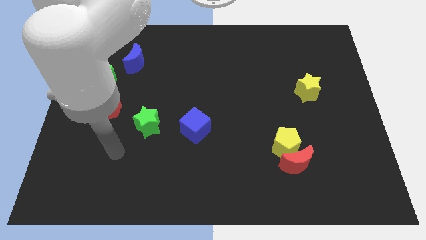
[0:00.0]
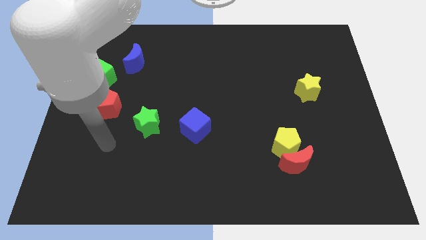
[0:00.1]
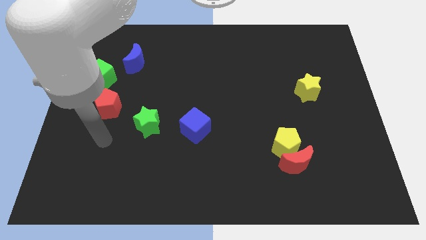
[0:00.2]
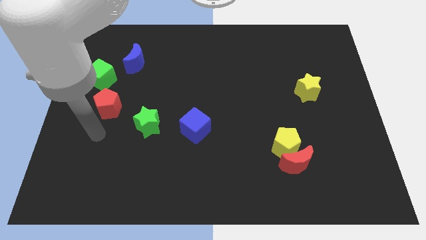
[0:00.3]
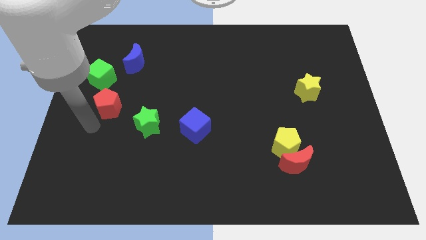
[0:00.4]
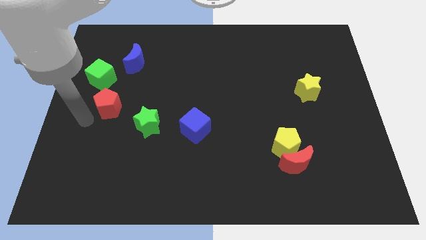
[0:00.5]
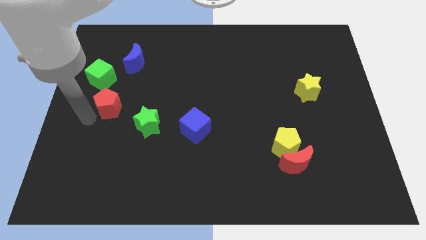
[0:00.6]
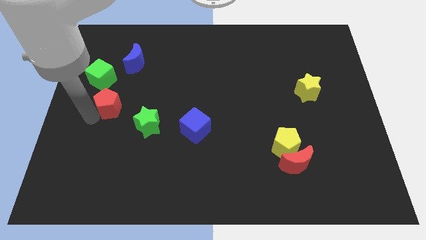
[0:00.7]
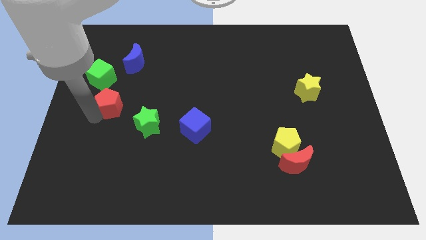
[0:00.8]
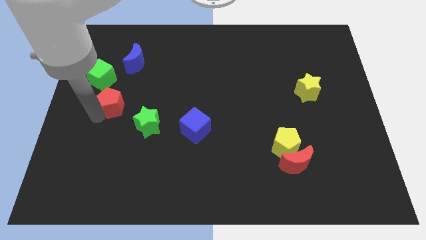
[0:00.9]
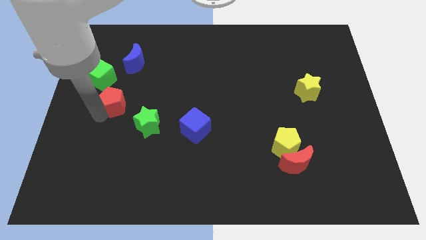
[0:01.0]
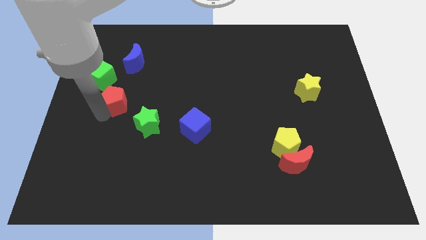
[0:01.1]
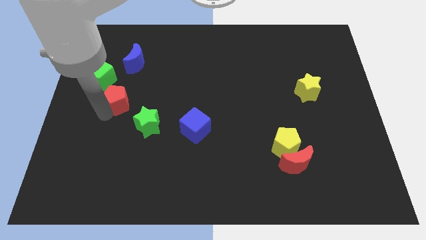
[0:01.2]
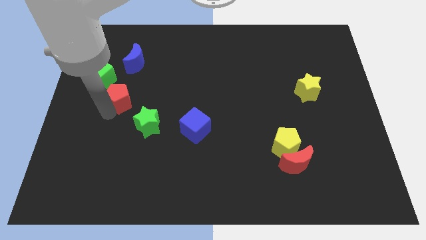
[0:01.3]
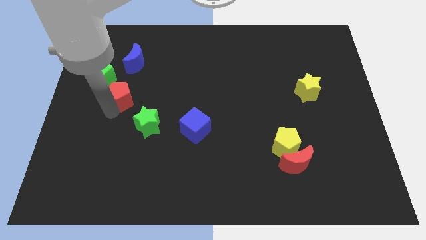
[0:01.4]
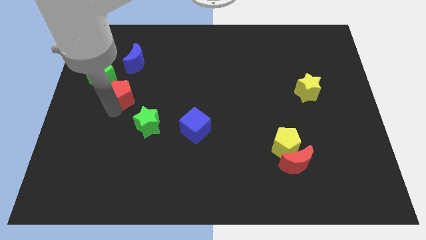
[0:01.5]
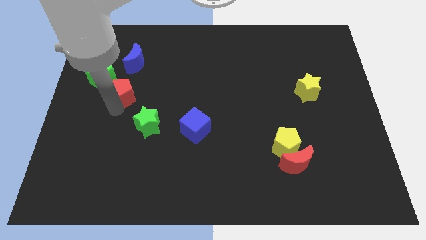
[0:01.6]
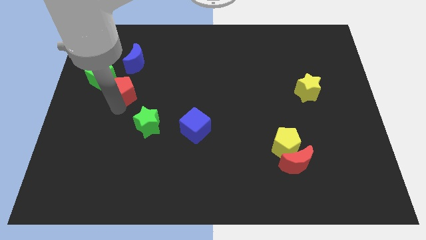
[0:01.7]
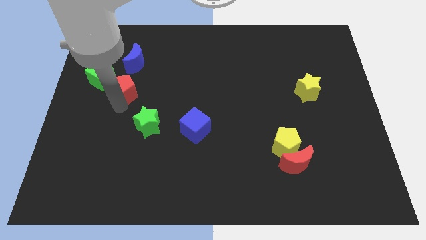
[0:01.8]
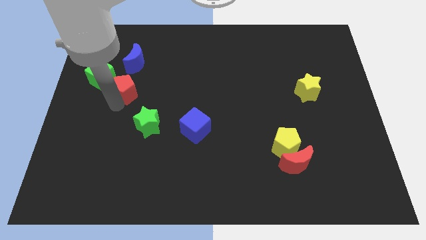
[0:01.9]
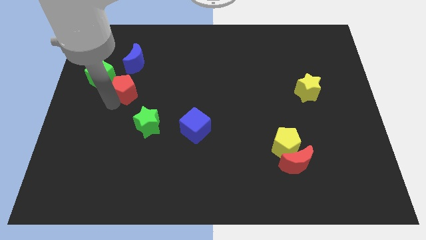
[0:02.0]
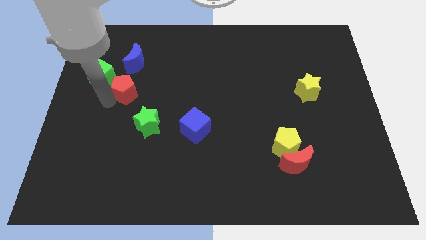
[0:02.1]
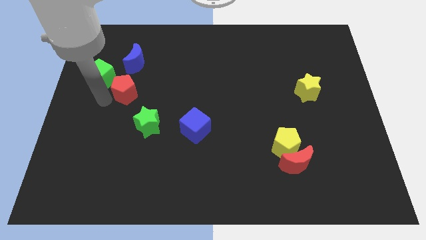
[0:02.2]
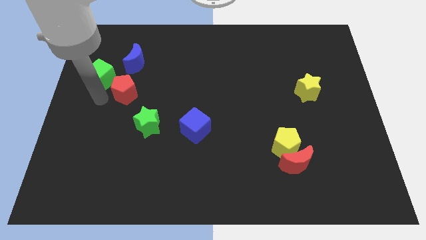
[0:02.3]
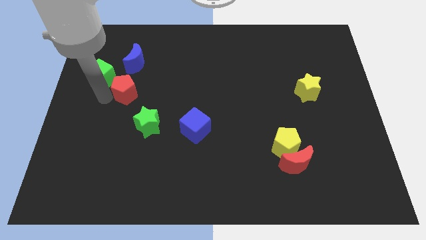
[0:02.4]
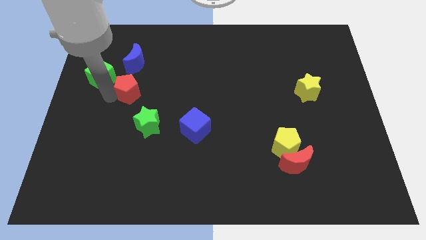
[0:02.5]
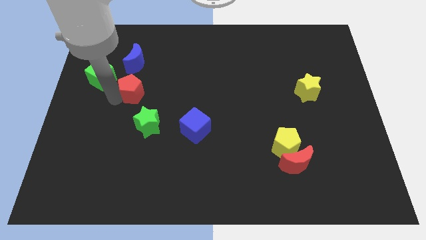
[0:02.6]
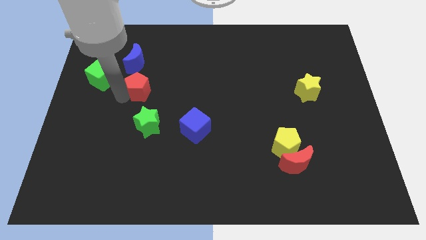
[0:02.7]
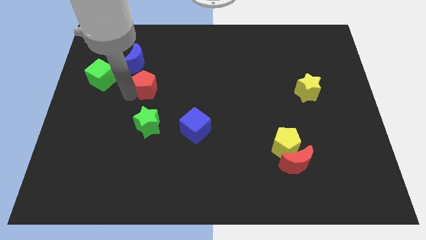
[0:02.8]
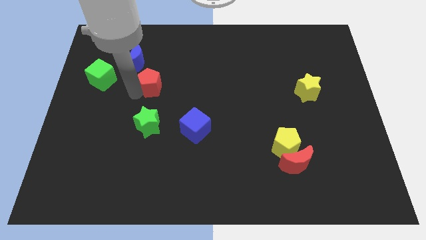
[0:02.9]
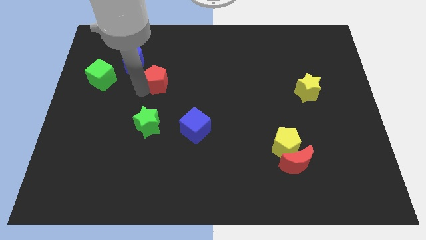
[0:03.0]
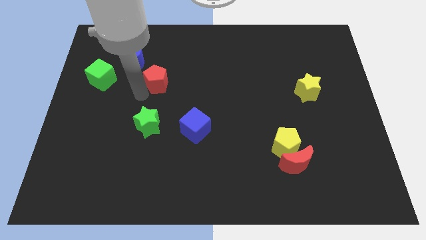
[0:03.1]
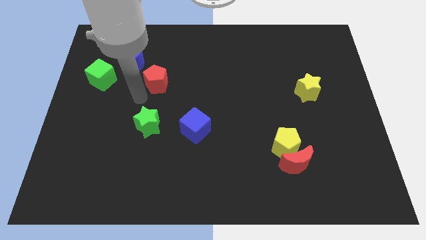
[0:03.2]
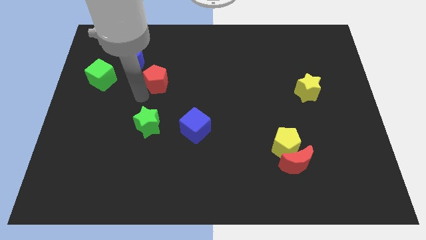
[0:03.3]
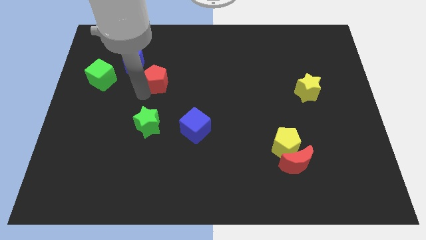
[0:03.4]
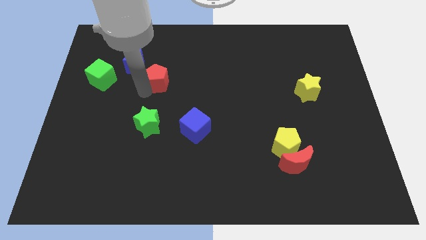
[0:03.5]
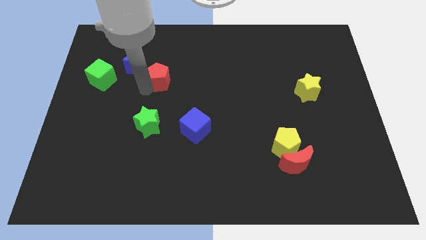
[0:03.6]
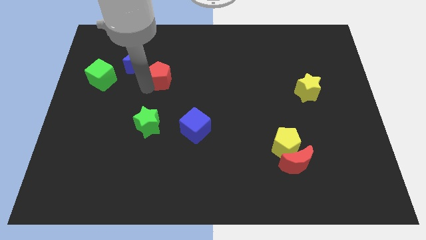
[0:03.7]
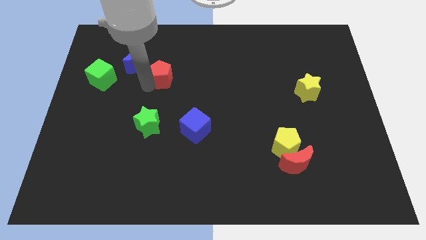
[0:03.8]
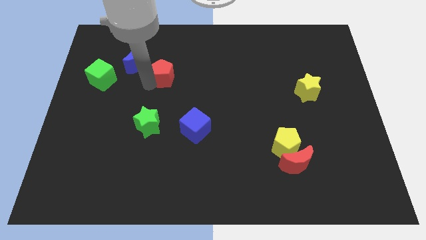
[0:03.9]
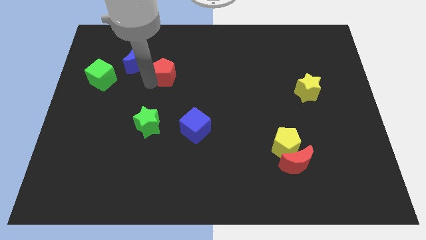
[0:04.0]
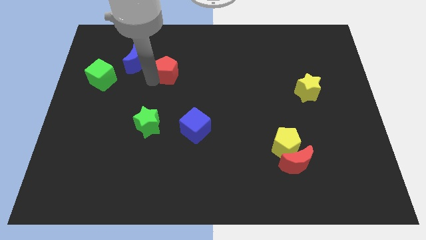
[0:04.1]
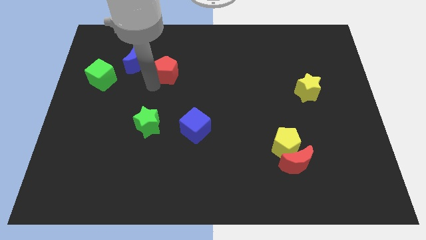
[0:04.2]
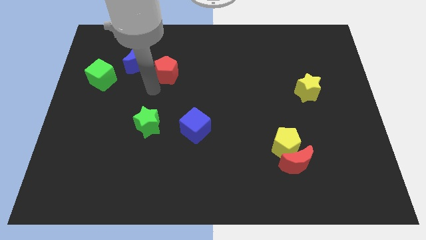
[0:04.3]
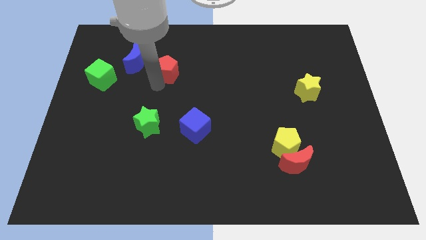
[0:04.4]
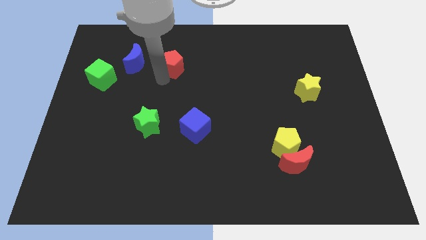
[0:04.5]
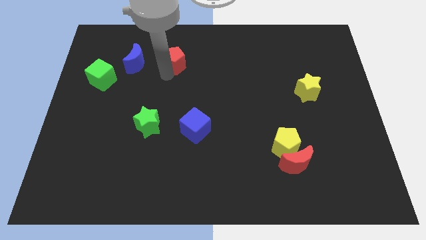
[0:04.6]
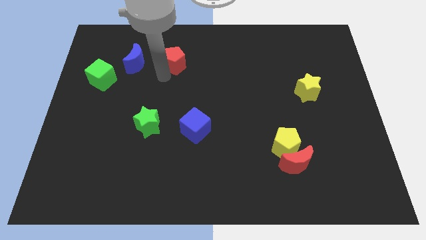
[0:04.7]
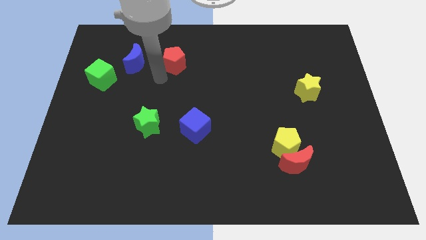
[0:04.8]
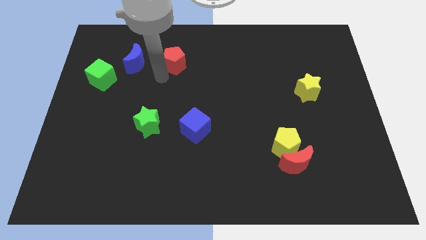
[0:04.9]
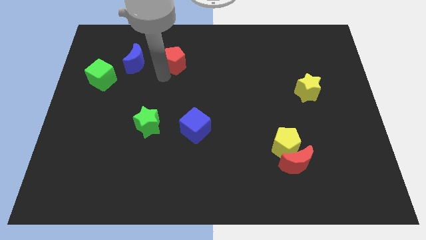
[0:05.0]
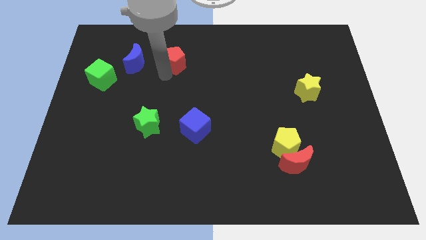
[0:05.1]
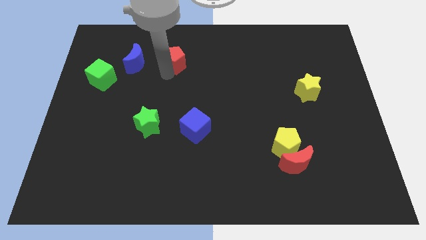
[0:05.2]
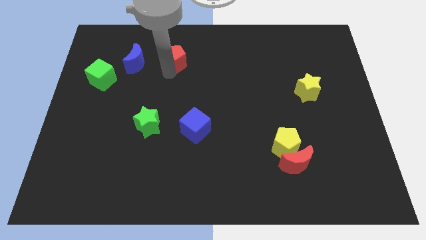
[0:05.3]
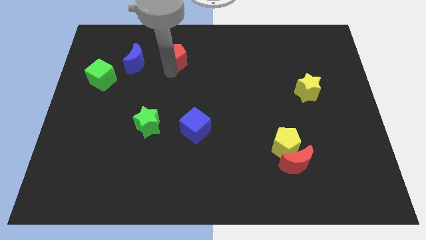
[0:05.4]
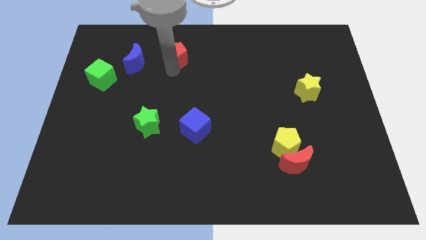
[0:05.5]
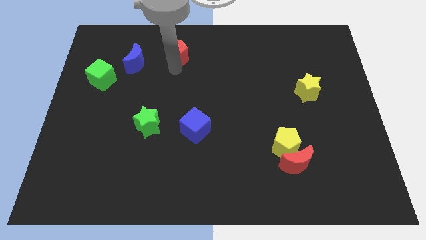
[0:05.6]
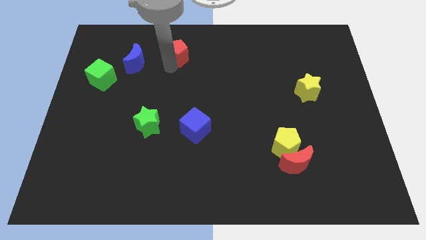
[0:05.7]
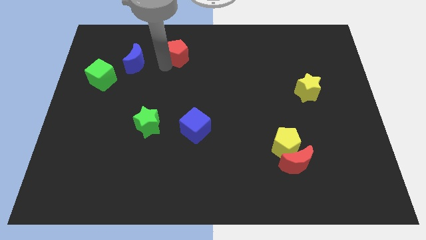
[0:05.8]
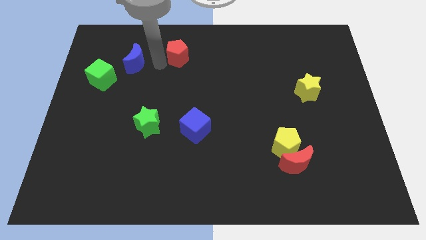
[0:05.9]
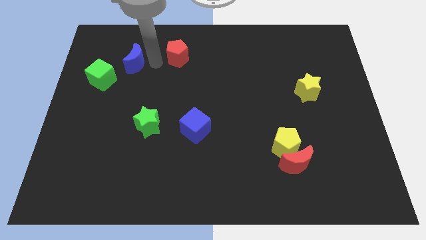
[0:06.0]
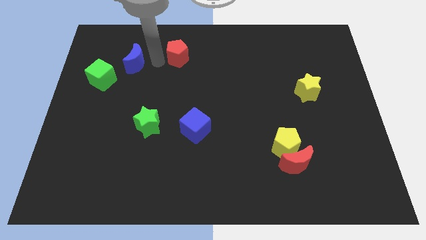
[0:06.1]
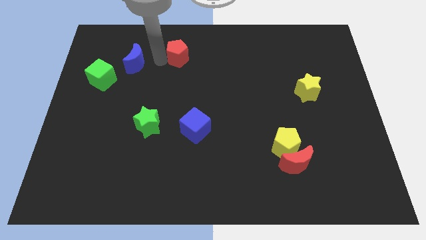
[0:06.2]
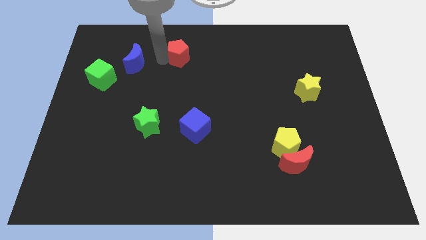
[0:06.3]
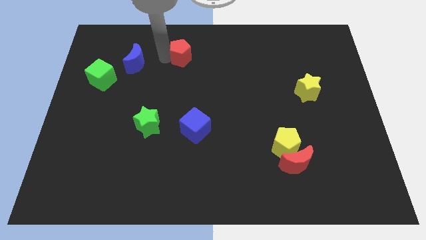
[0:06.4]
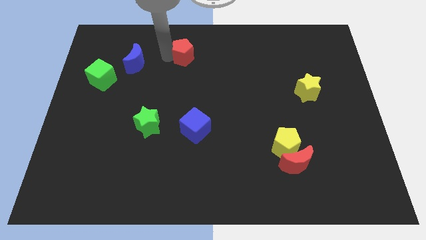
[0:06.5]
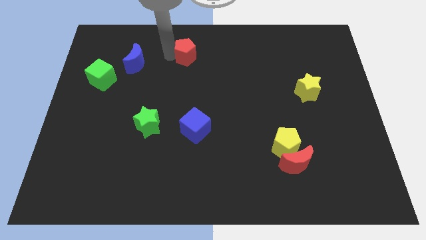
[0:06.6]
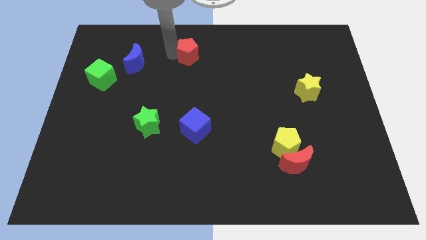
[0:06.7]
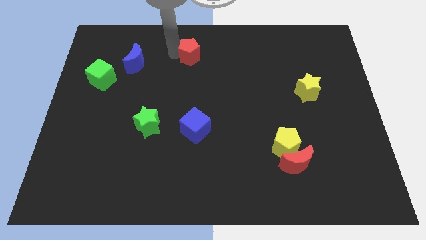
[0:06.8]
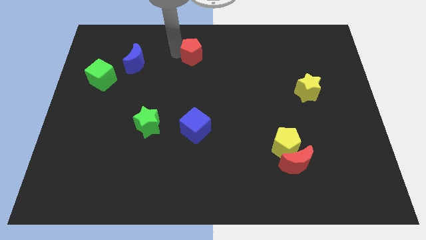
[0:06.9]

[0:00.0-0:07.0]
slide the red pentagon to the towards your base

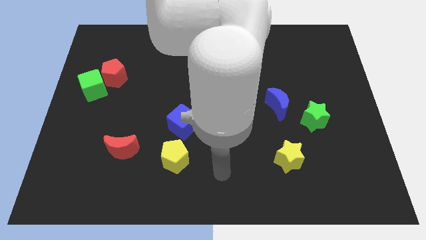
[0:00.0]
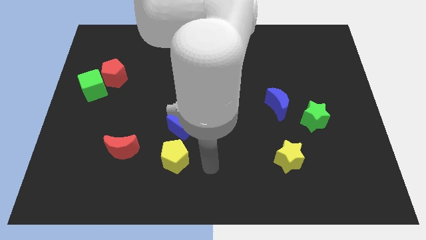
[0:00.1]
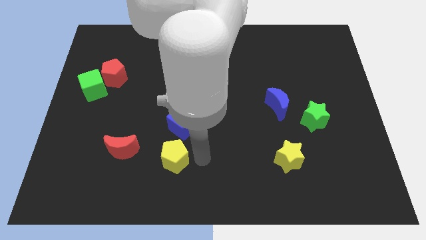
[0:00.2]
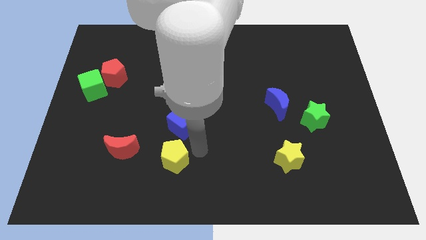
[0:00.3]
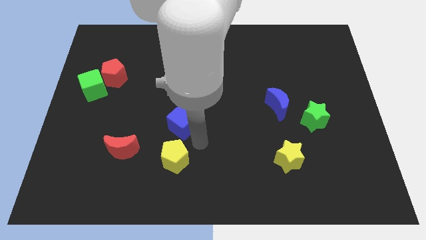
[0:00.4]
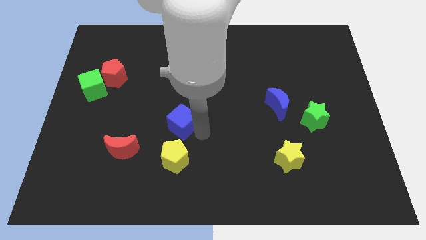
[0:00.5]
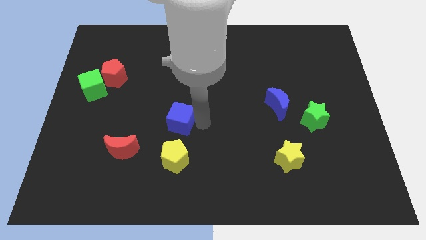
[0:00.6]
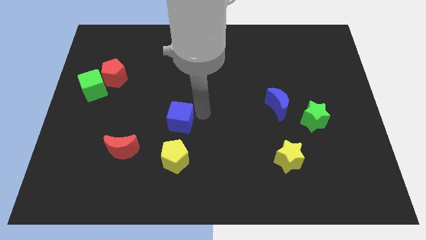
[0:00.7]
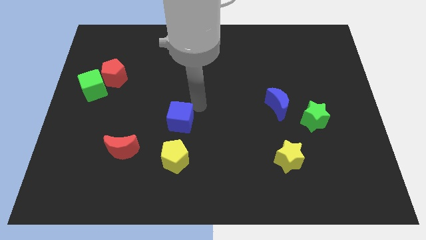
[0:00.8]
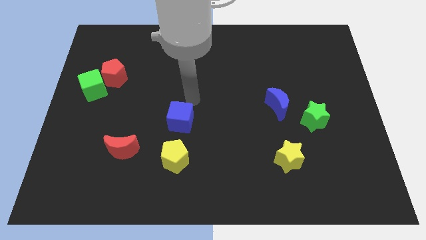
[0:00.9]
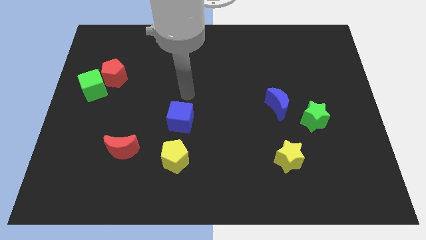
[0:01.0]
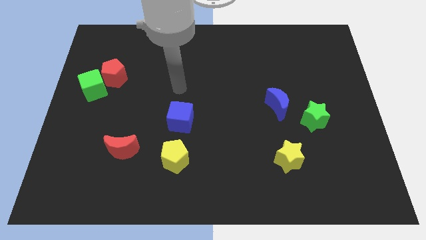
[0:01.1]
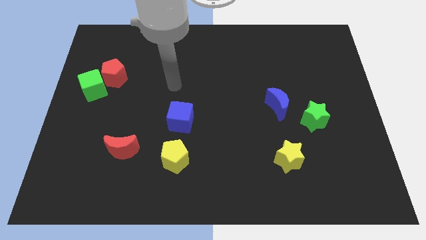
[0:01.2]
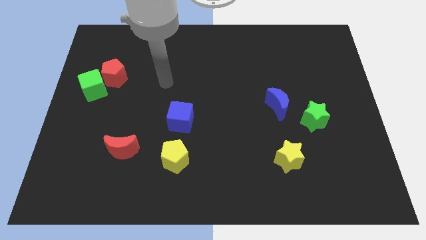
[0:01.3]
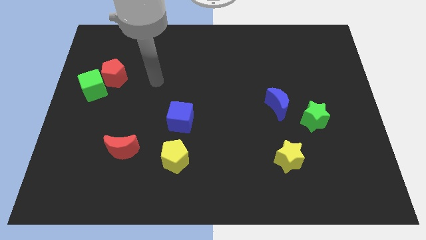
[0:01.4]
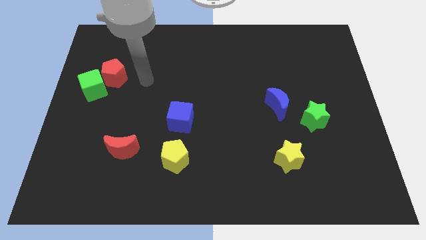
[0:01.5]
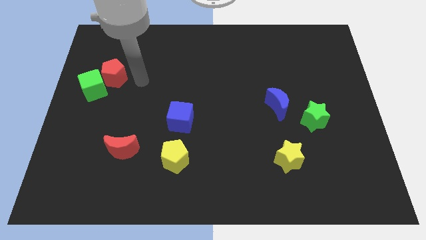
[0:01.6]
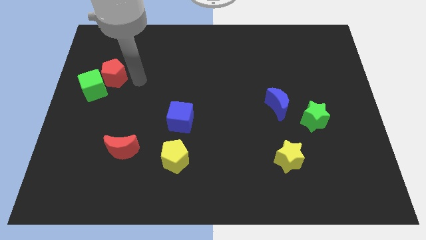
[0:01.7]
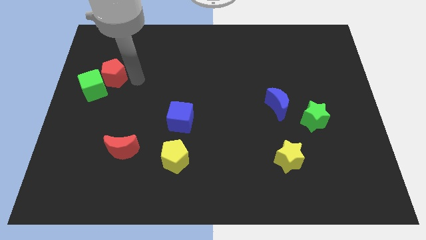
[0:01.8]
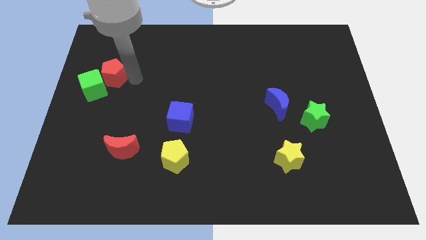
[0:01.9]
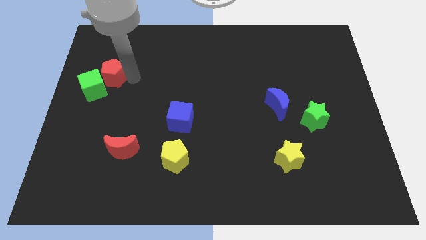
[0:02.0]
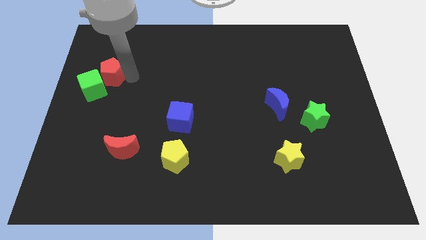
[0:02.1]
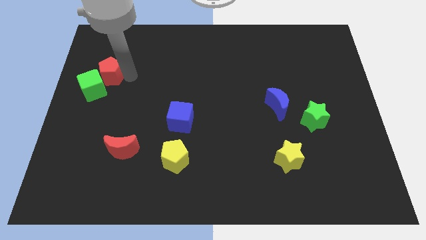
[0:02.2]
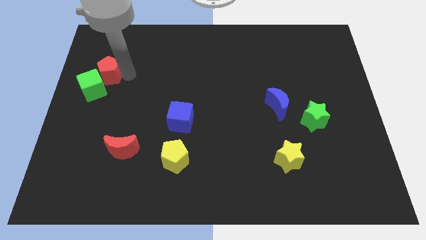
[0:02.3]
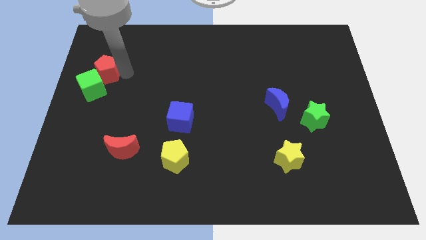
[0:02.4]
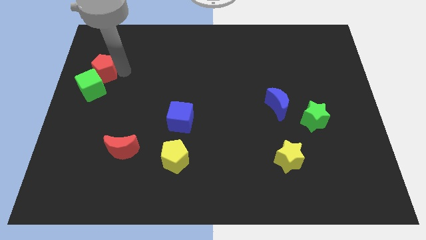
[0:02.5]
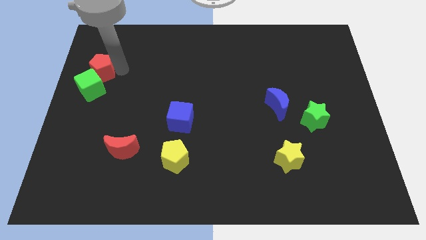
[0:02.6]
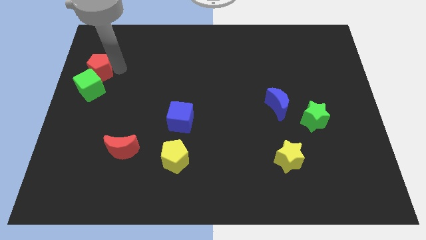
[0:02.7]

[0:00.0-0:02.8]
put the red pentagon to the center left
